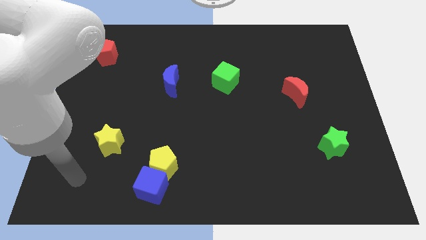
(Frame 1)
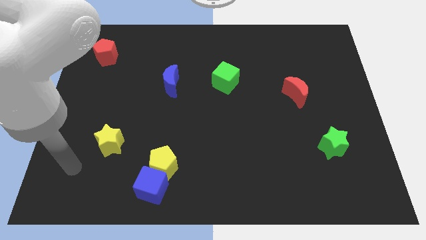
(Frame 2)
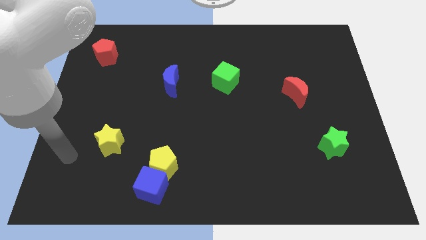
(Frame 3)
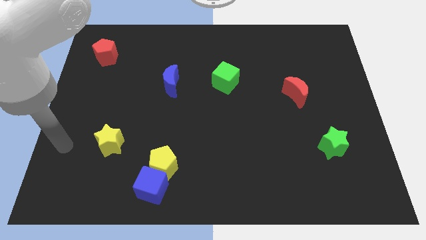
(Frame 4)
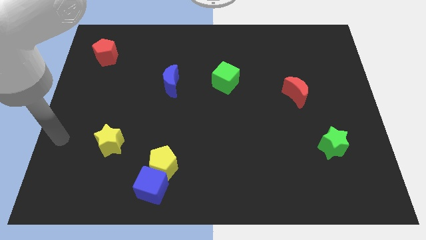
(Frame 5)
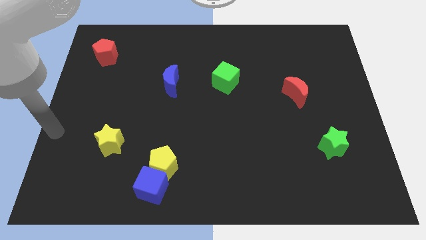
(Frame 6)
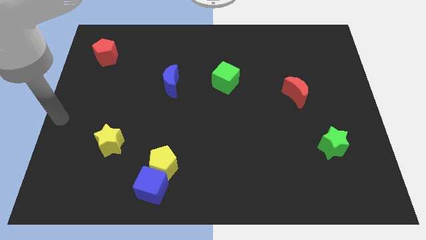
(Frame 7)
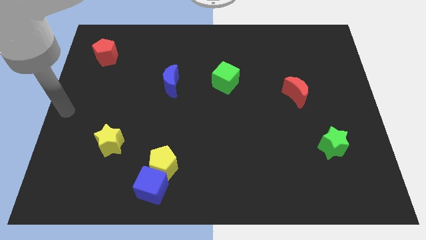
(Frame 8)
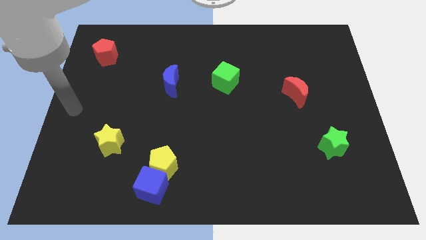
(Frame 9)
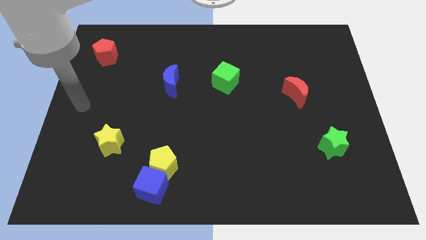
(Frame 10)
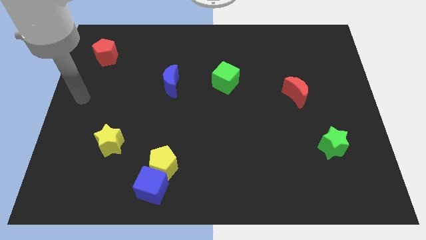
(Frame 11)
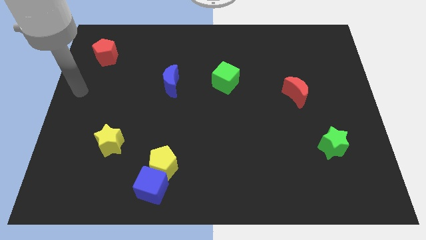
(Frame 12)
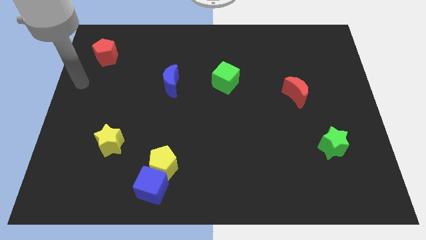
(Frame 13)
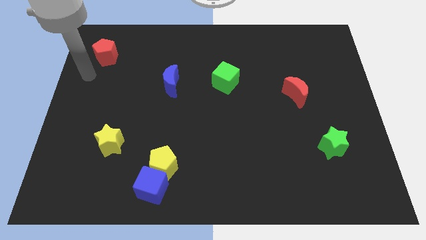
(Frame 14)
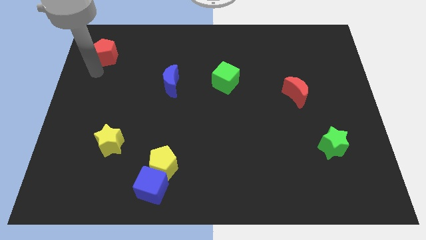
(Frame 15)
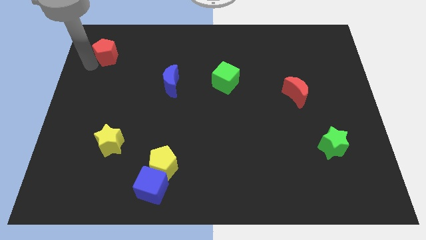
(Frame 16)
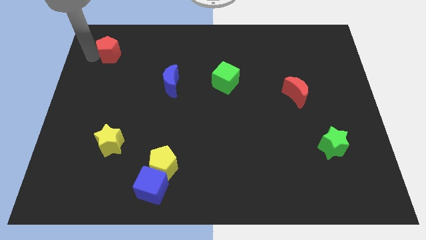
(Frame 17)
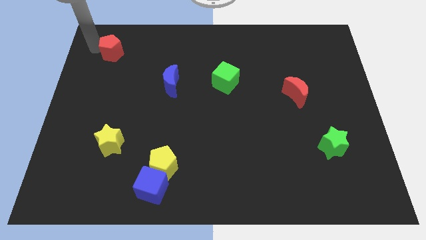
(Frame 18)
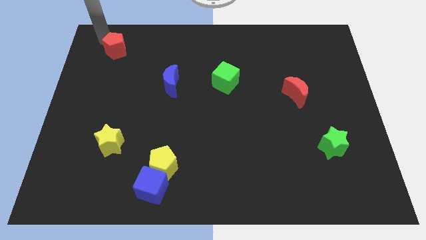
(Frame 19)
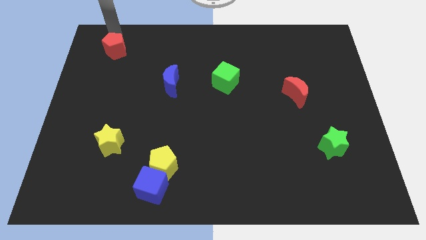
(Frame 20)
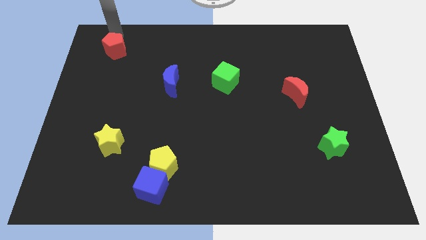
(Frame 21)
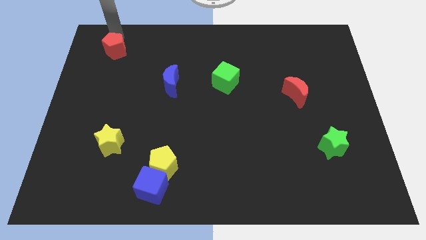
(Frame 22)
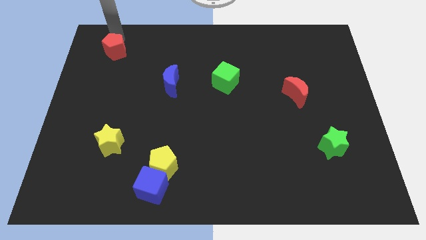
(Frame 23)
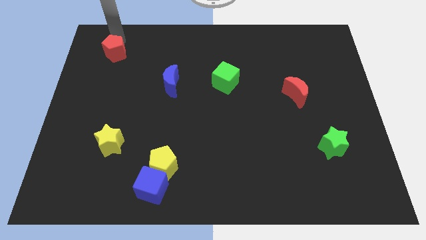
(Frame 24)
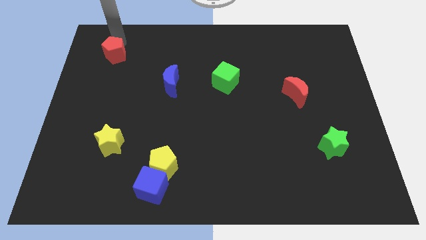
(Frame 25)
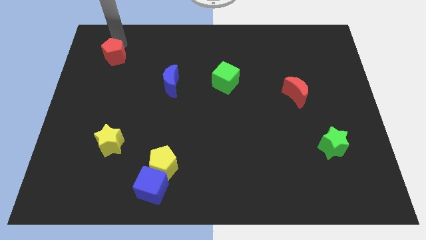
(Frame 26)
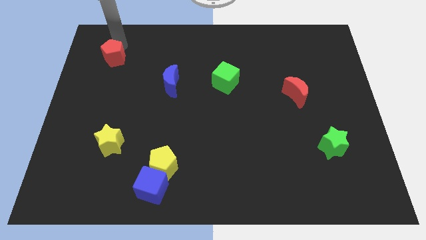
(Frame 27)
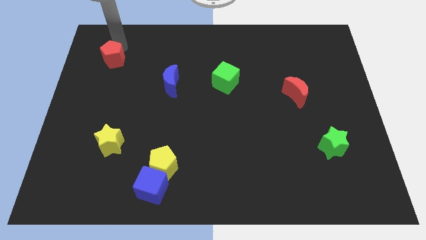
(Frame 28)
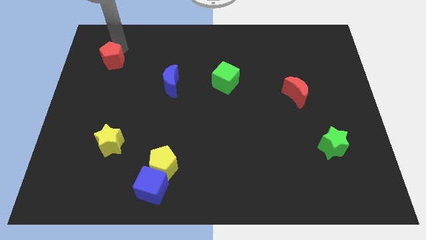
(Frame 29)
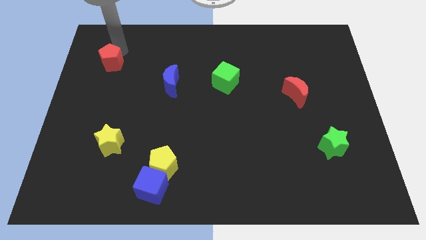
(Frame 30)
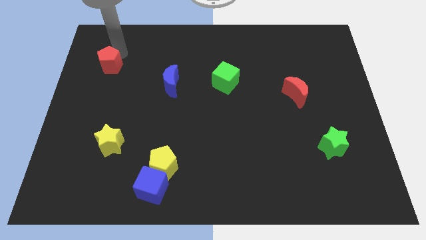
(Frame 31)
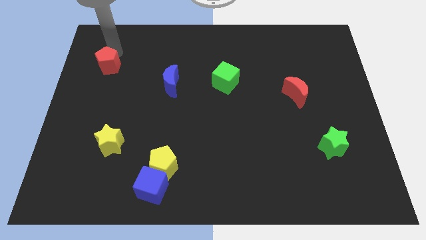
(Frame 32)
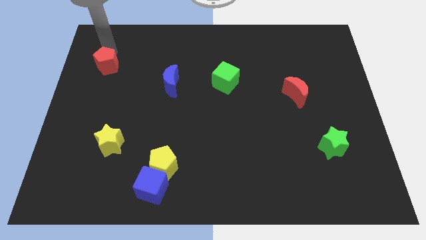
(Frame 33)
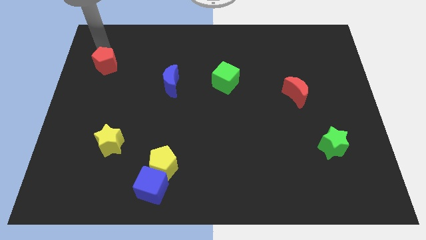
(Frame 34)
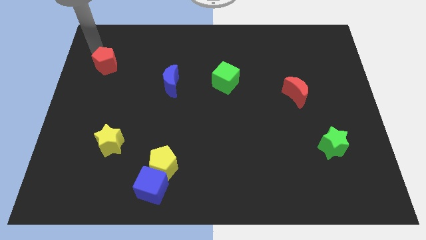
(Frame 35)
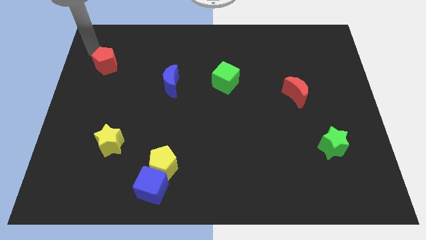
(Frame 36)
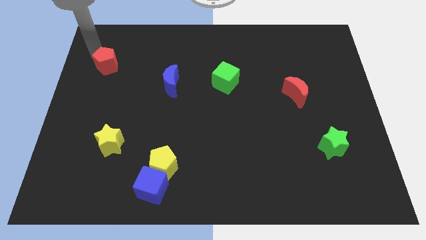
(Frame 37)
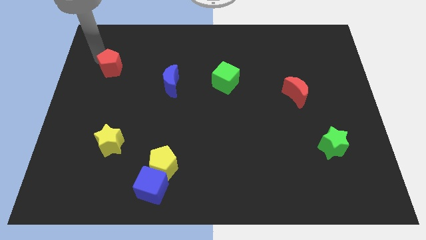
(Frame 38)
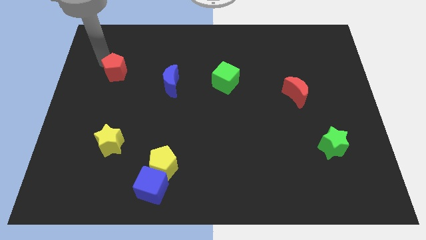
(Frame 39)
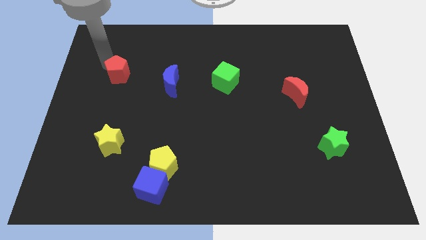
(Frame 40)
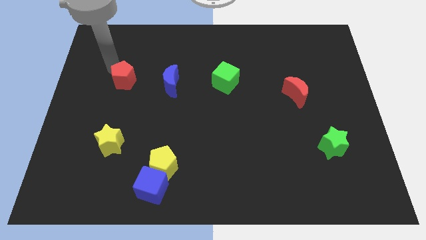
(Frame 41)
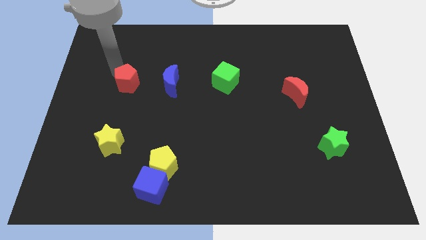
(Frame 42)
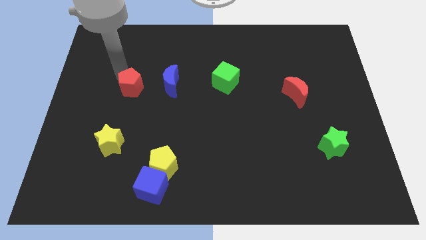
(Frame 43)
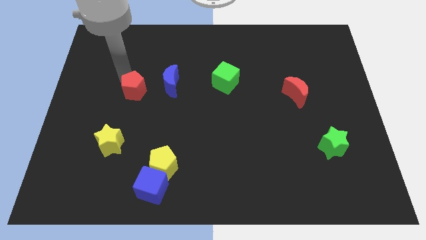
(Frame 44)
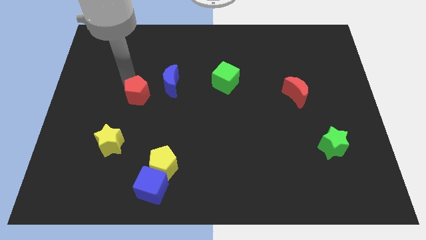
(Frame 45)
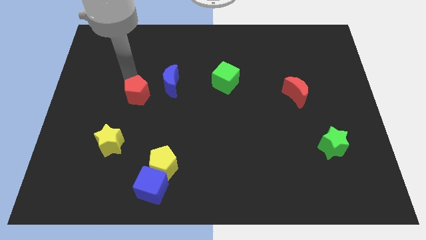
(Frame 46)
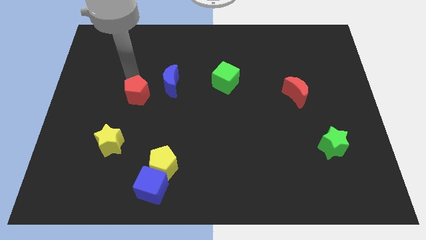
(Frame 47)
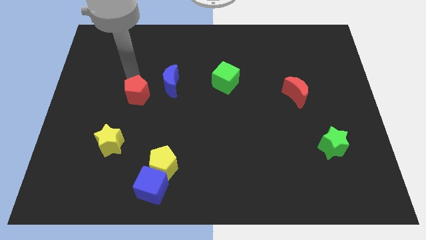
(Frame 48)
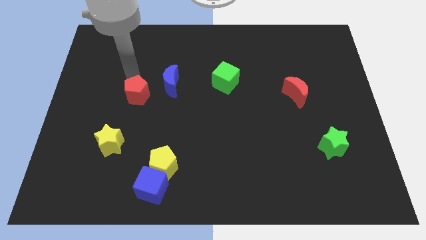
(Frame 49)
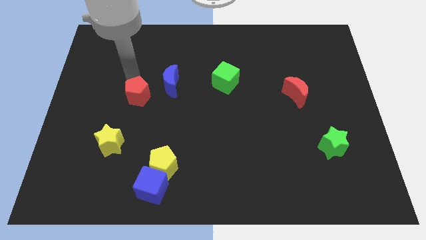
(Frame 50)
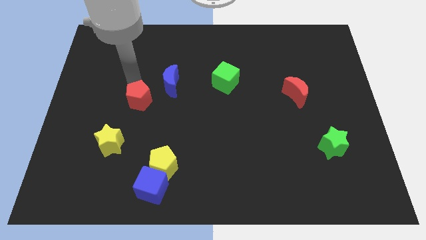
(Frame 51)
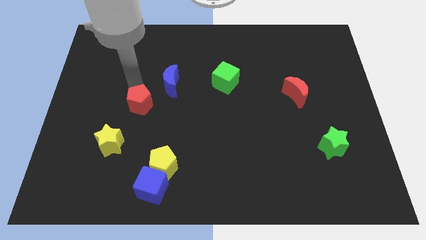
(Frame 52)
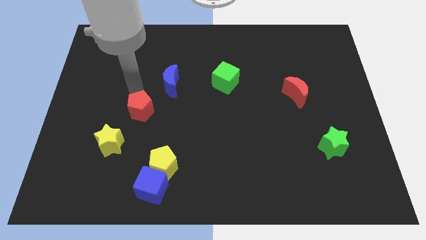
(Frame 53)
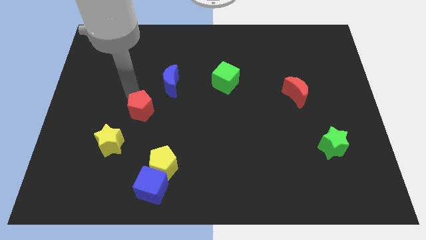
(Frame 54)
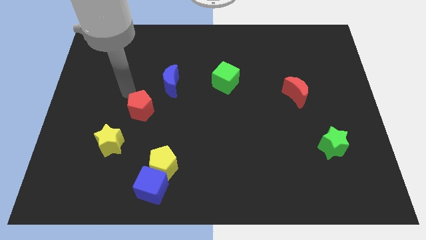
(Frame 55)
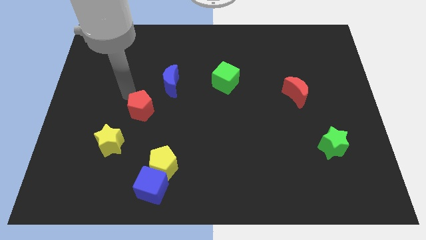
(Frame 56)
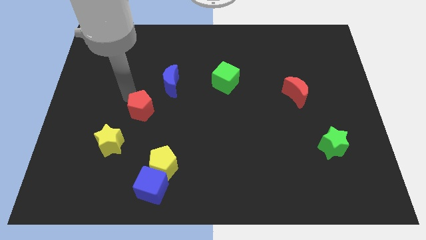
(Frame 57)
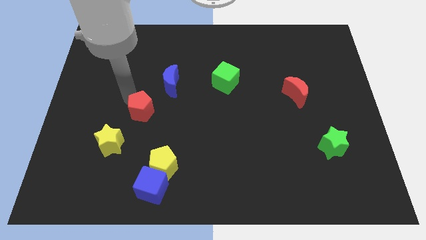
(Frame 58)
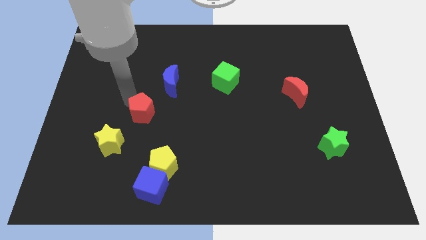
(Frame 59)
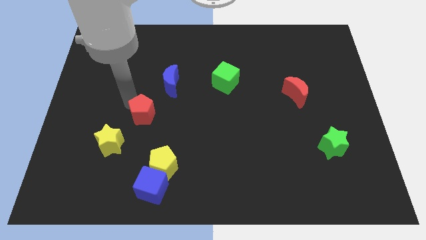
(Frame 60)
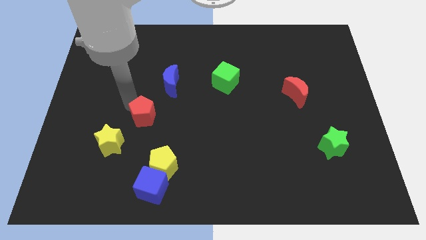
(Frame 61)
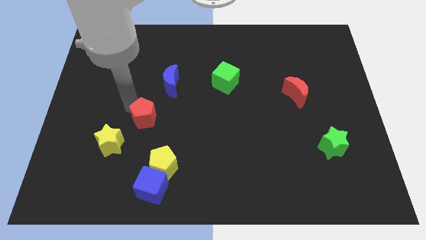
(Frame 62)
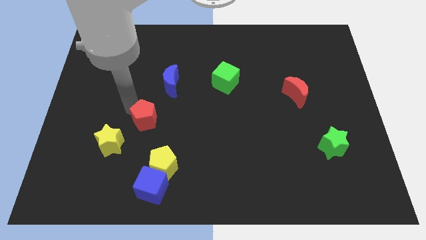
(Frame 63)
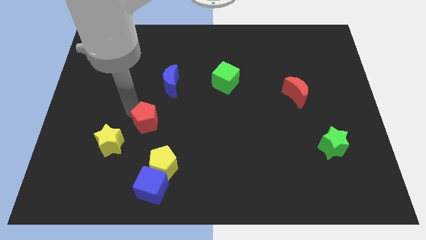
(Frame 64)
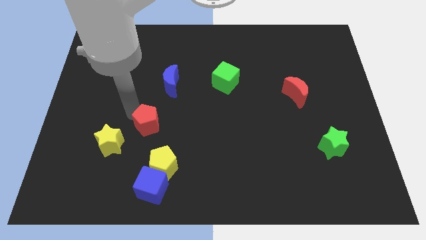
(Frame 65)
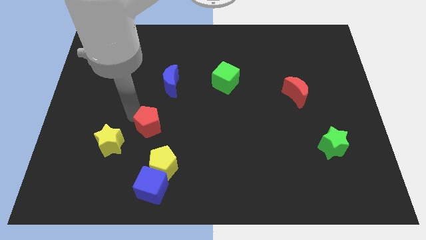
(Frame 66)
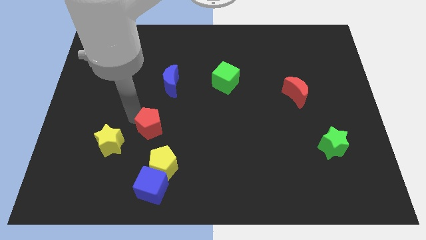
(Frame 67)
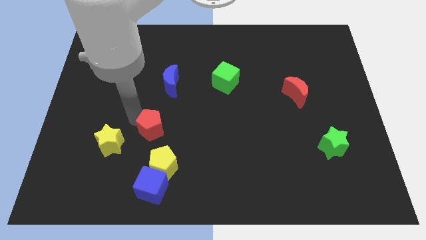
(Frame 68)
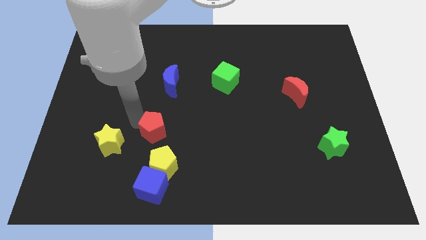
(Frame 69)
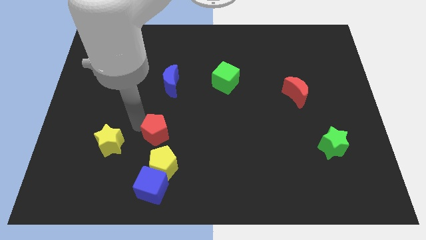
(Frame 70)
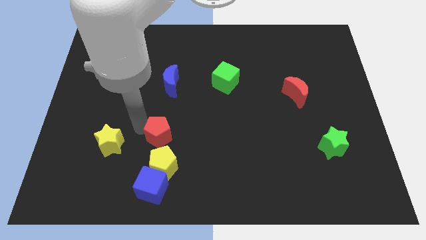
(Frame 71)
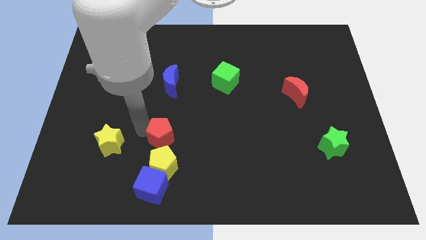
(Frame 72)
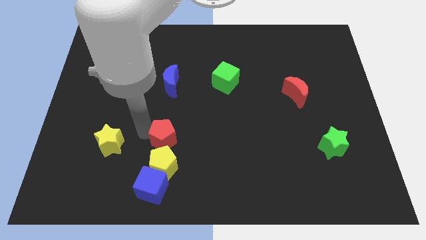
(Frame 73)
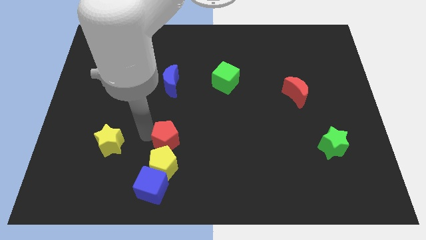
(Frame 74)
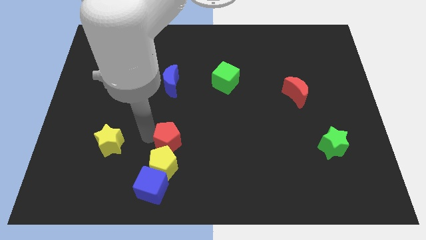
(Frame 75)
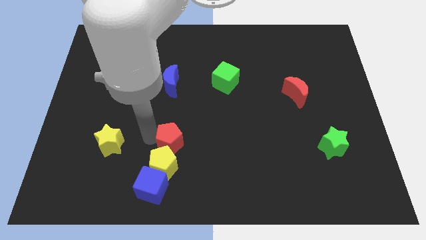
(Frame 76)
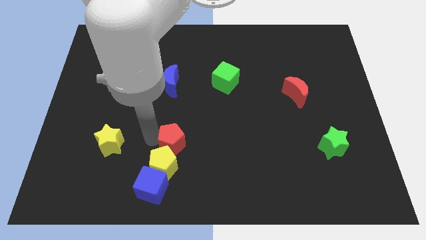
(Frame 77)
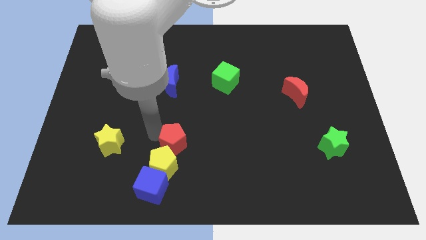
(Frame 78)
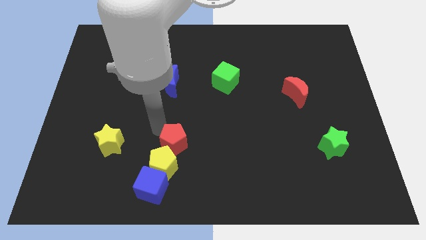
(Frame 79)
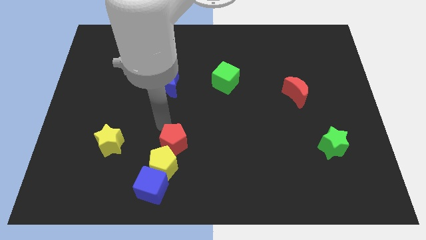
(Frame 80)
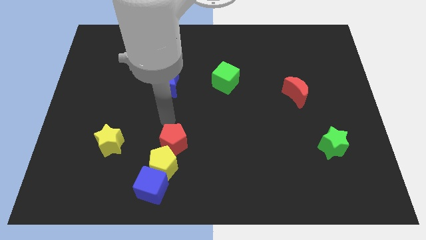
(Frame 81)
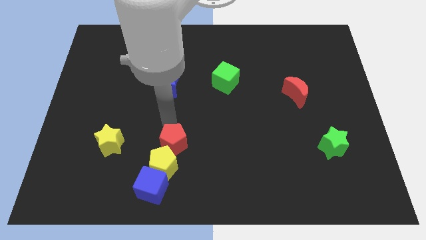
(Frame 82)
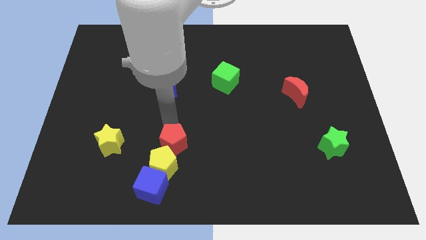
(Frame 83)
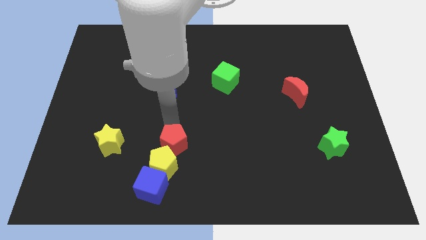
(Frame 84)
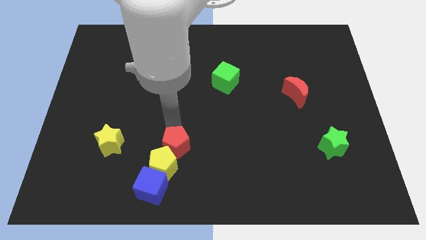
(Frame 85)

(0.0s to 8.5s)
slide the red pentagon to the top right side of the blue cube
